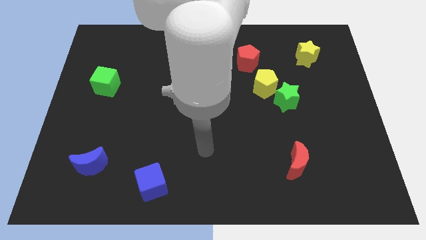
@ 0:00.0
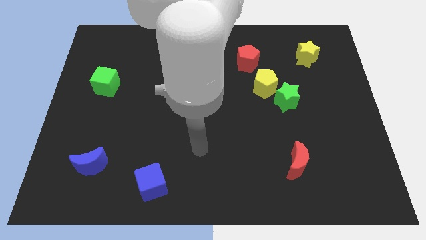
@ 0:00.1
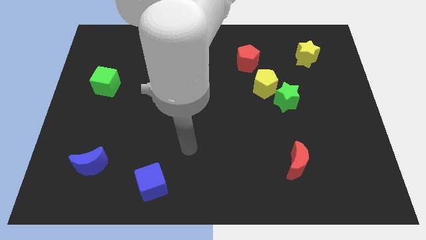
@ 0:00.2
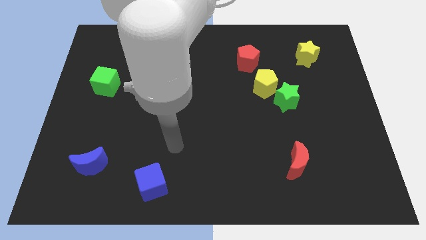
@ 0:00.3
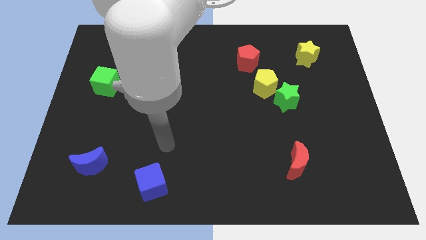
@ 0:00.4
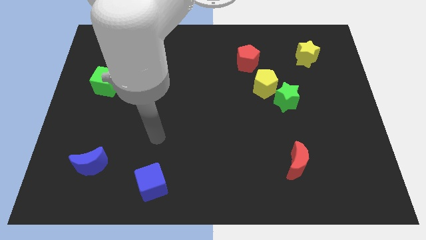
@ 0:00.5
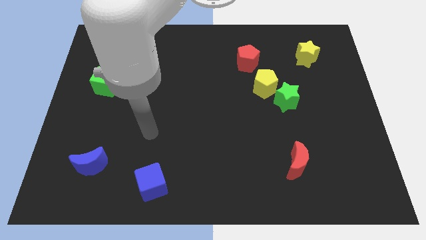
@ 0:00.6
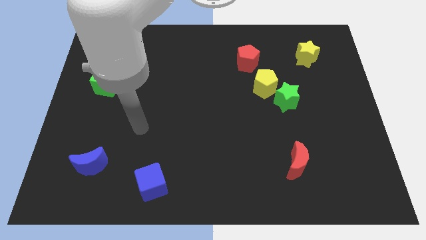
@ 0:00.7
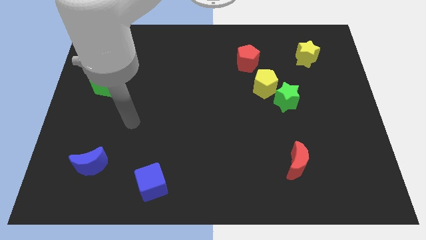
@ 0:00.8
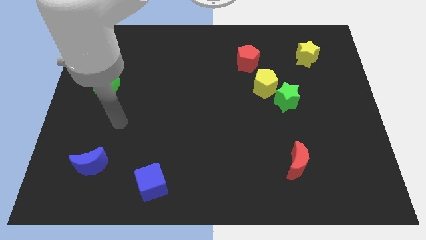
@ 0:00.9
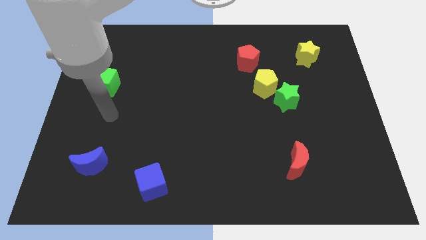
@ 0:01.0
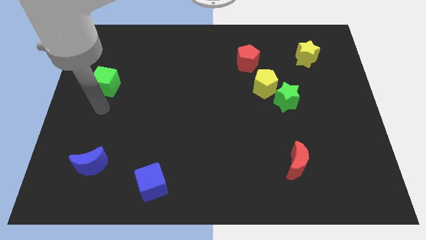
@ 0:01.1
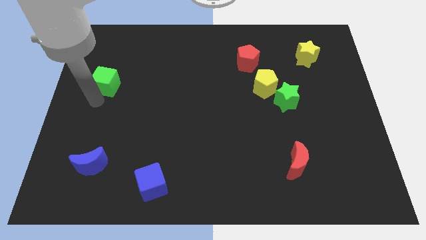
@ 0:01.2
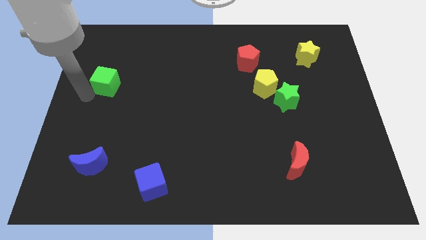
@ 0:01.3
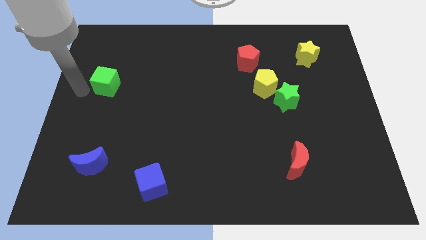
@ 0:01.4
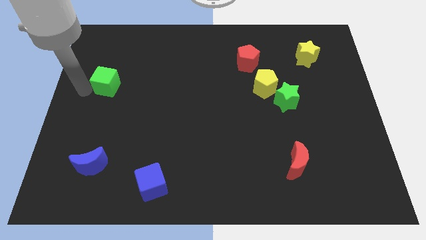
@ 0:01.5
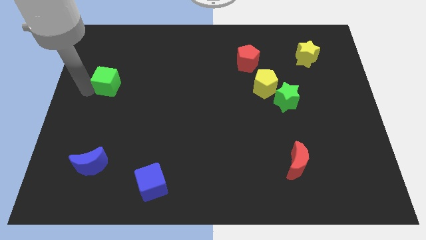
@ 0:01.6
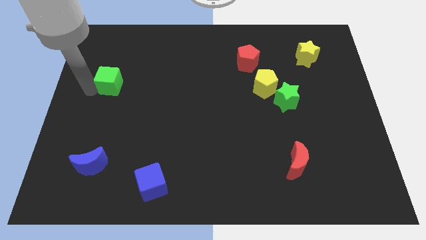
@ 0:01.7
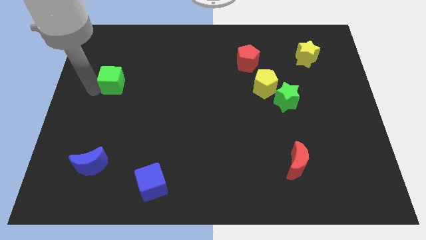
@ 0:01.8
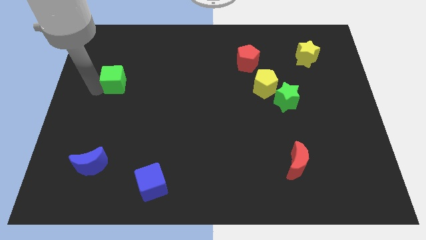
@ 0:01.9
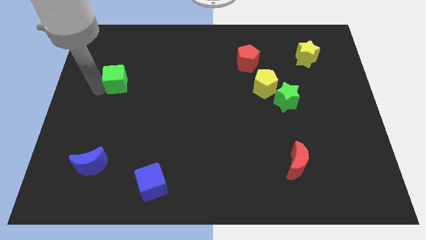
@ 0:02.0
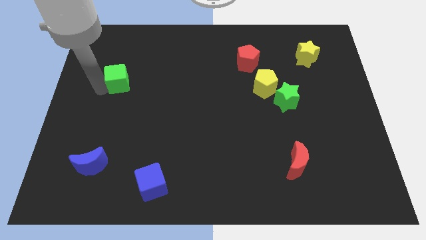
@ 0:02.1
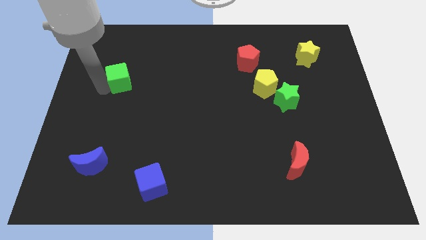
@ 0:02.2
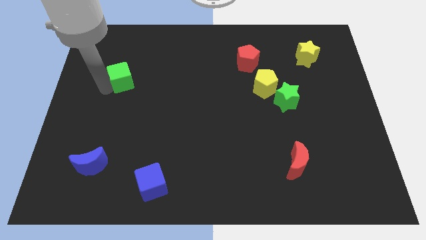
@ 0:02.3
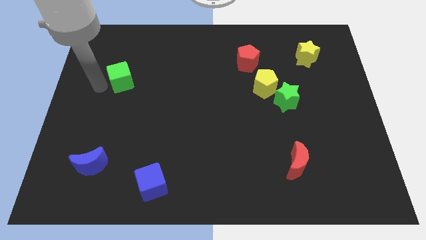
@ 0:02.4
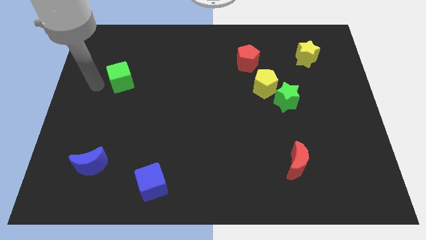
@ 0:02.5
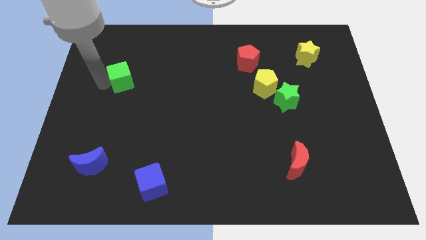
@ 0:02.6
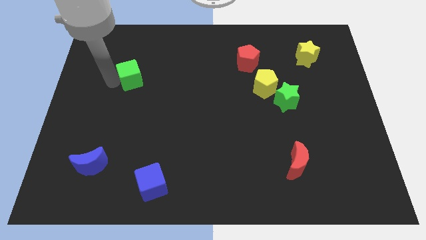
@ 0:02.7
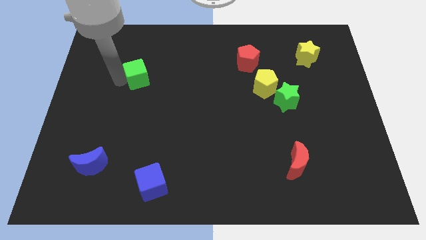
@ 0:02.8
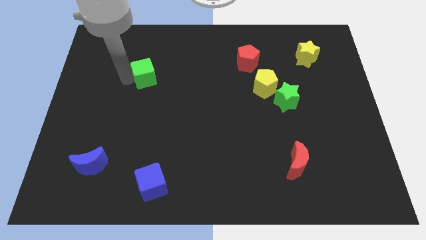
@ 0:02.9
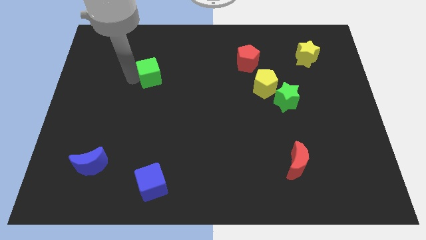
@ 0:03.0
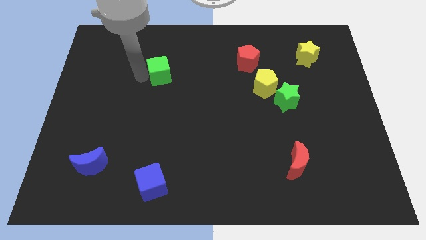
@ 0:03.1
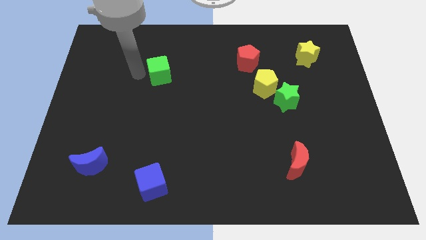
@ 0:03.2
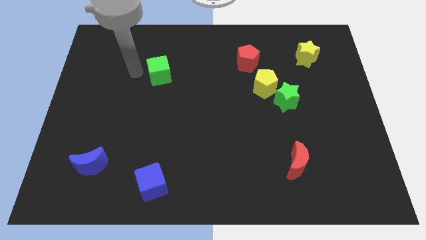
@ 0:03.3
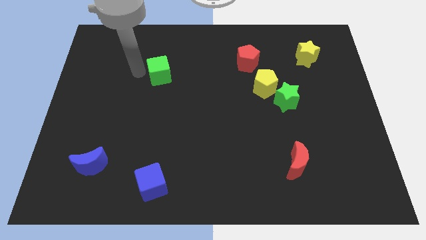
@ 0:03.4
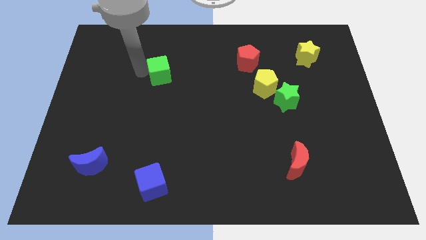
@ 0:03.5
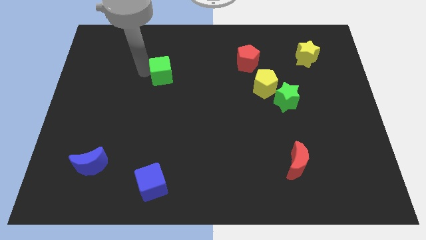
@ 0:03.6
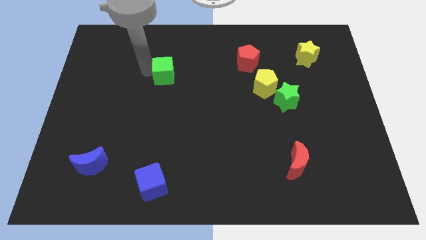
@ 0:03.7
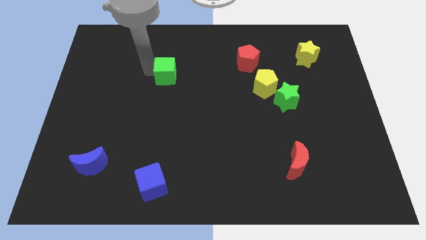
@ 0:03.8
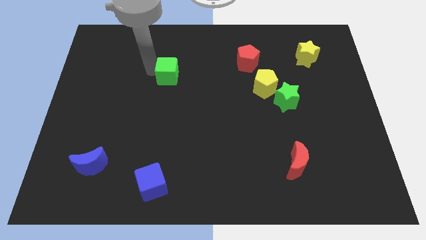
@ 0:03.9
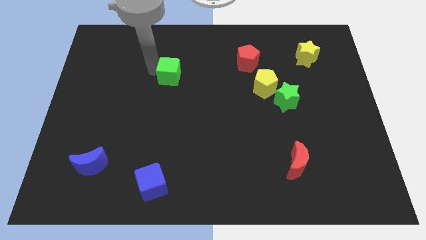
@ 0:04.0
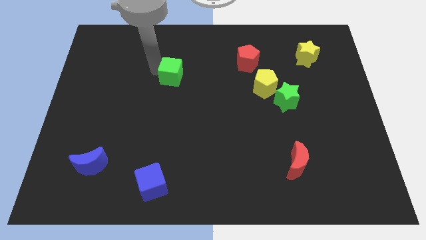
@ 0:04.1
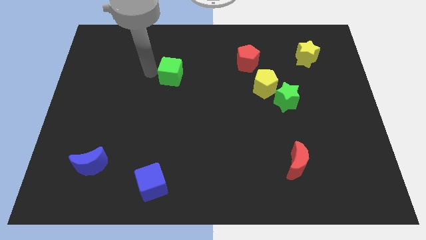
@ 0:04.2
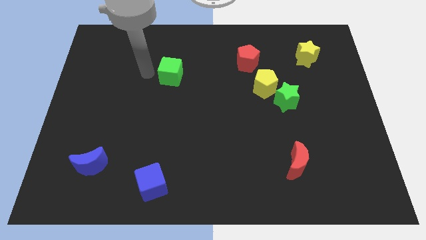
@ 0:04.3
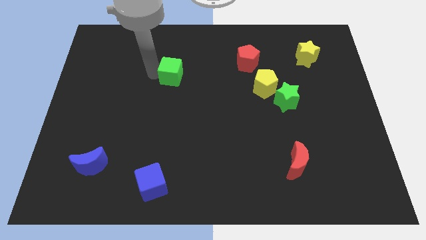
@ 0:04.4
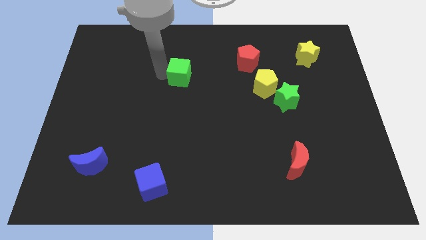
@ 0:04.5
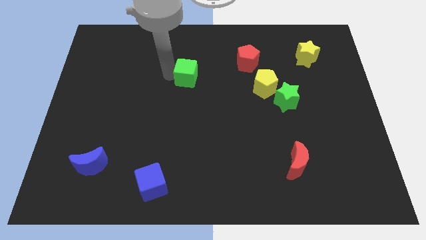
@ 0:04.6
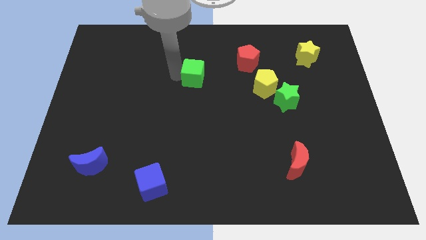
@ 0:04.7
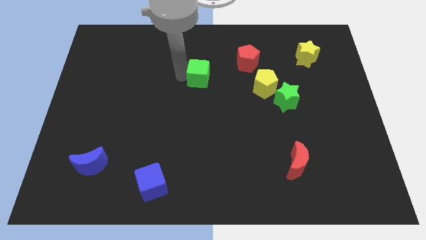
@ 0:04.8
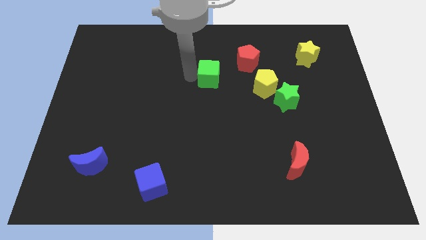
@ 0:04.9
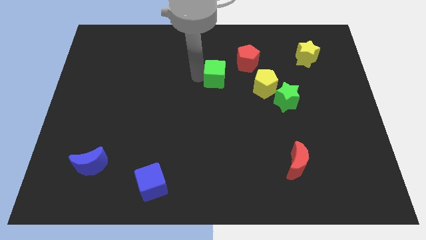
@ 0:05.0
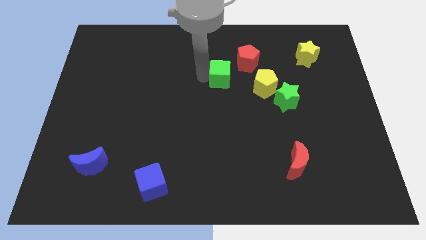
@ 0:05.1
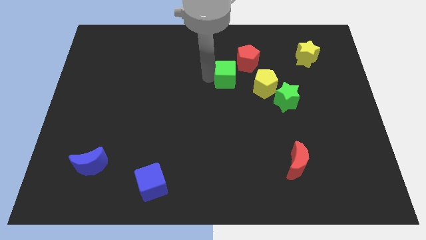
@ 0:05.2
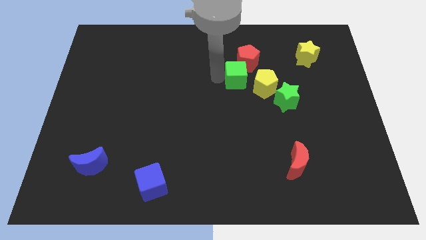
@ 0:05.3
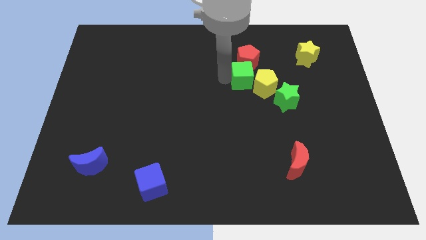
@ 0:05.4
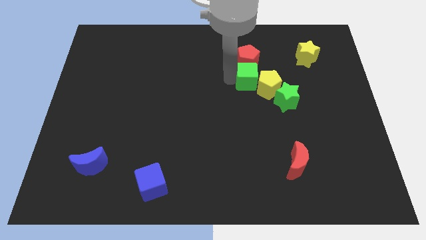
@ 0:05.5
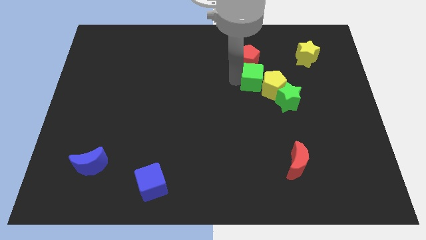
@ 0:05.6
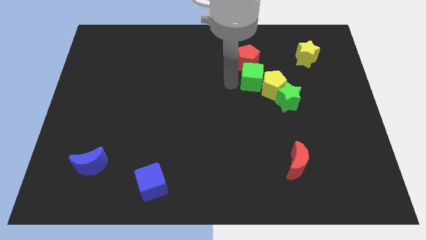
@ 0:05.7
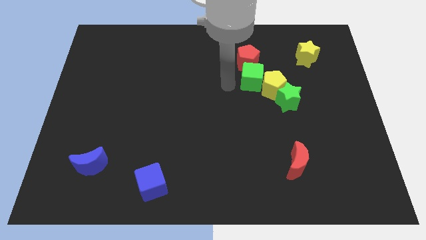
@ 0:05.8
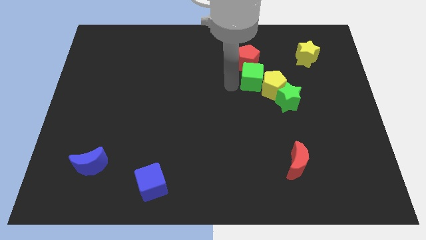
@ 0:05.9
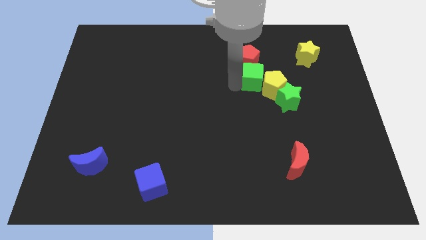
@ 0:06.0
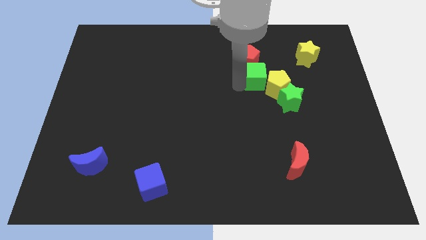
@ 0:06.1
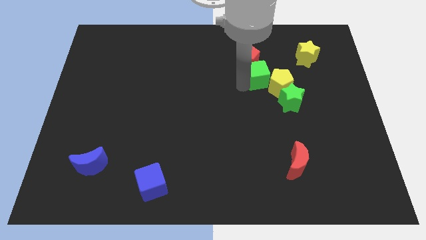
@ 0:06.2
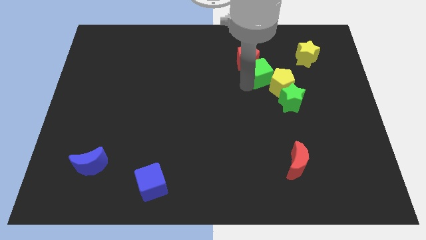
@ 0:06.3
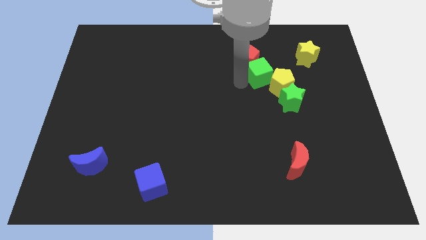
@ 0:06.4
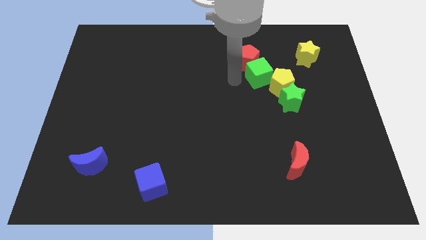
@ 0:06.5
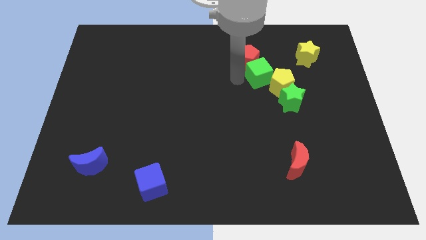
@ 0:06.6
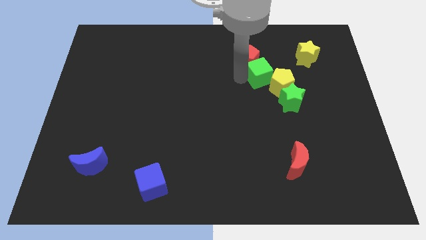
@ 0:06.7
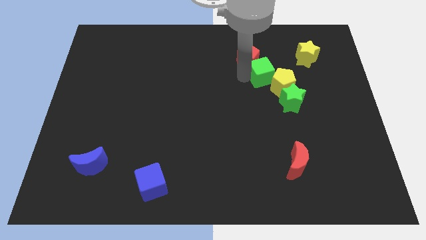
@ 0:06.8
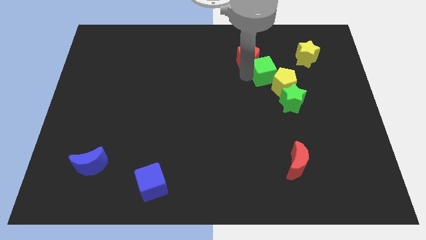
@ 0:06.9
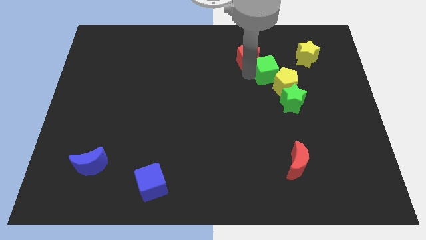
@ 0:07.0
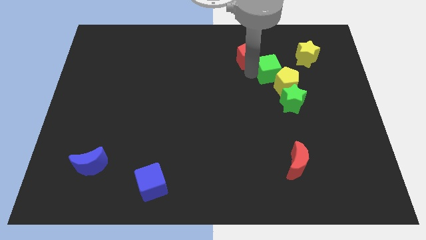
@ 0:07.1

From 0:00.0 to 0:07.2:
put the green cube to the bottom left of the yellow star
